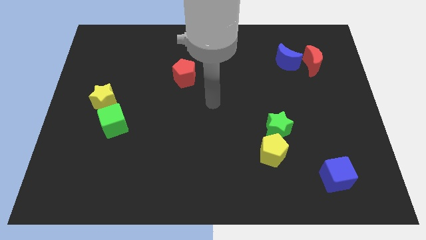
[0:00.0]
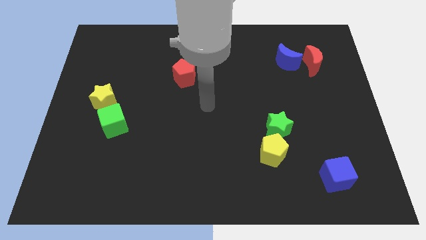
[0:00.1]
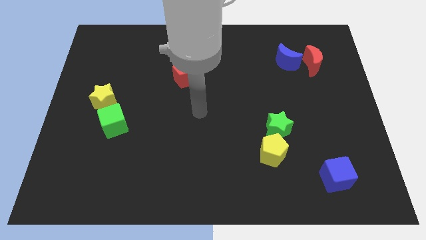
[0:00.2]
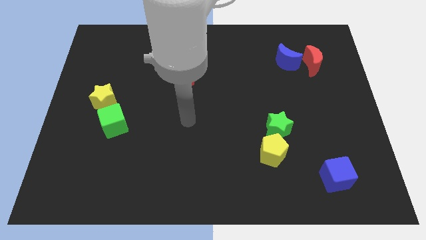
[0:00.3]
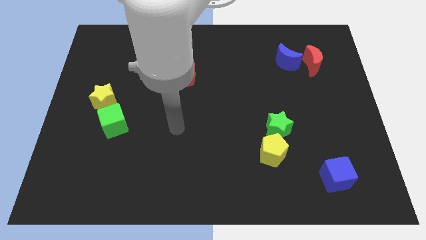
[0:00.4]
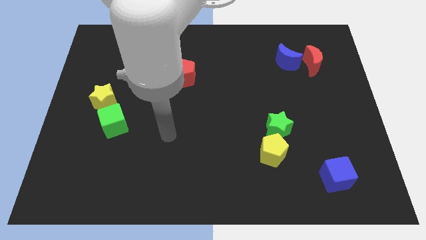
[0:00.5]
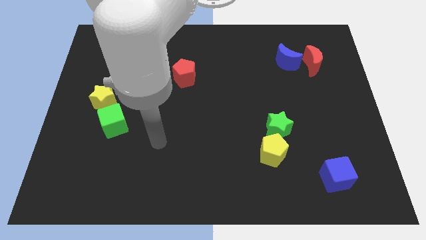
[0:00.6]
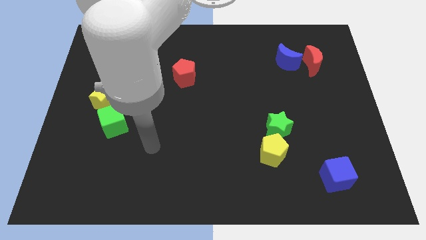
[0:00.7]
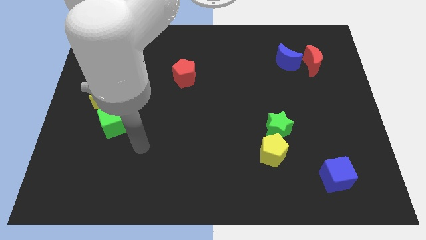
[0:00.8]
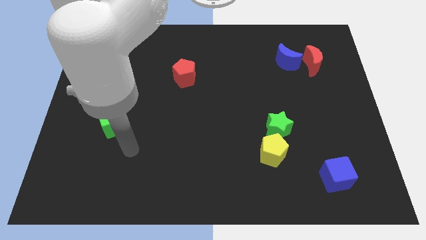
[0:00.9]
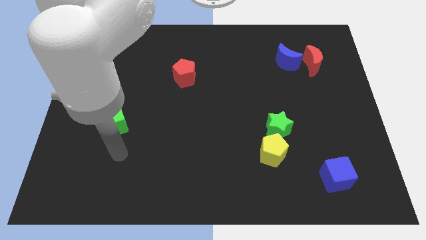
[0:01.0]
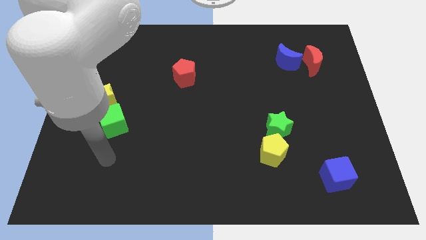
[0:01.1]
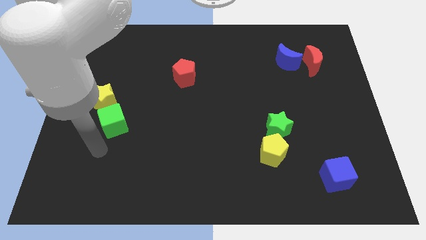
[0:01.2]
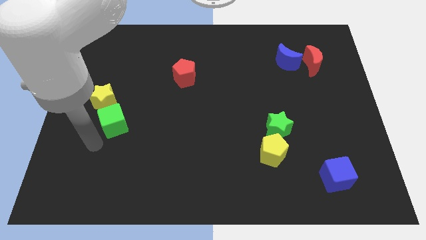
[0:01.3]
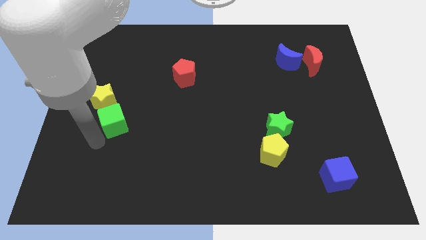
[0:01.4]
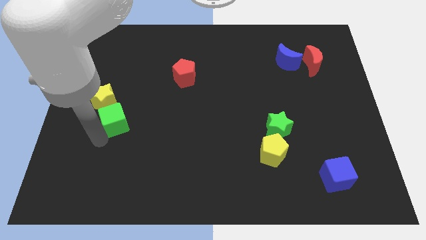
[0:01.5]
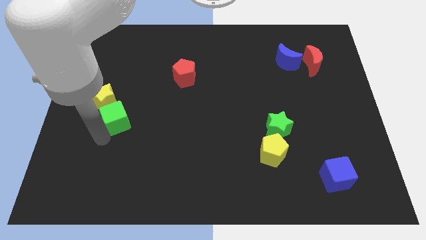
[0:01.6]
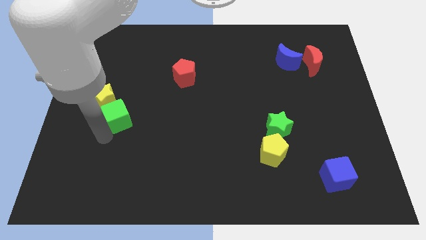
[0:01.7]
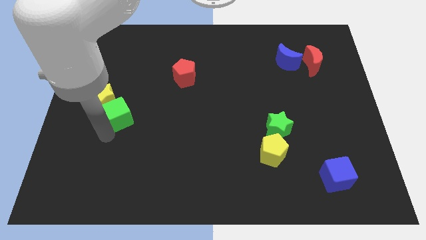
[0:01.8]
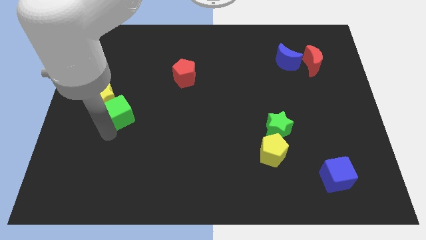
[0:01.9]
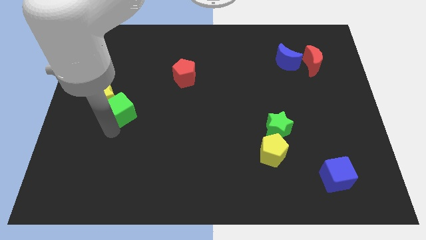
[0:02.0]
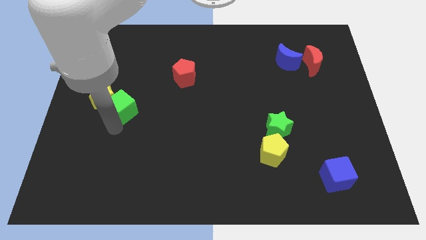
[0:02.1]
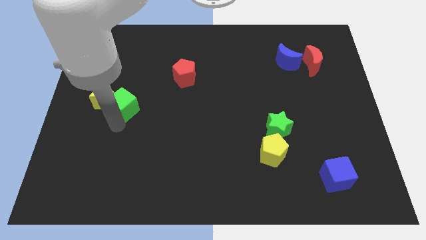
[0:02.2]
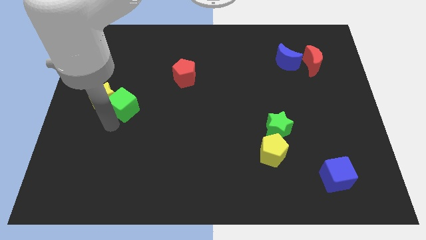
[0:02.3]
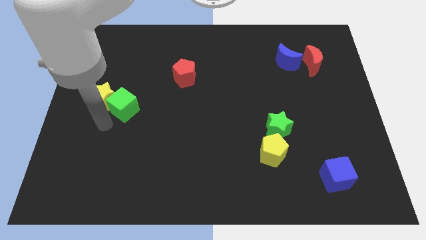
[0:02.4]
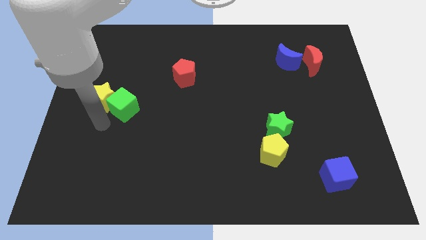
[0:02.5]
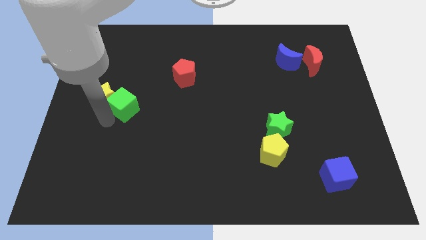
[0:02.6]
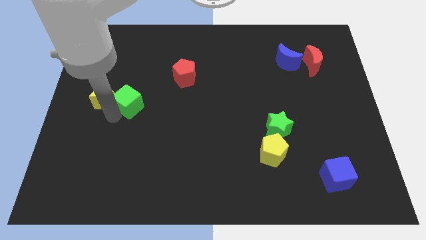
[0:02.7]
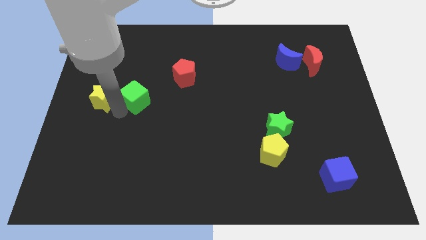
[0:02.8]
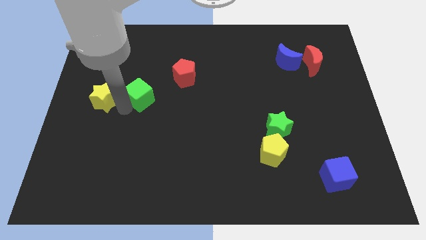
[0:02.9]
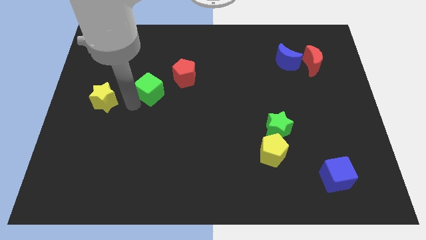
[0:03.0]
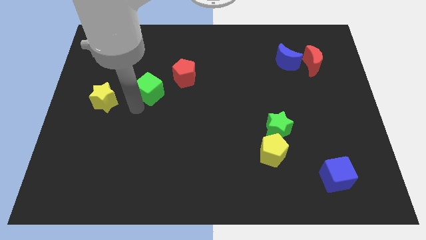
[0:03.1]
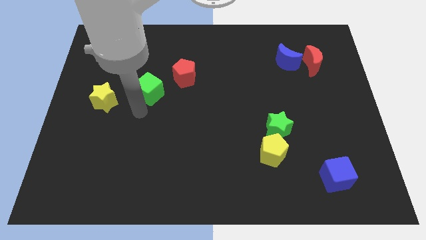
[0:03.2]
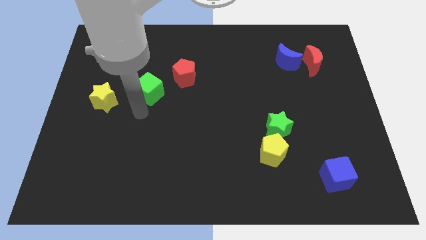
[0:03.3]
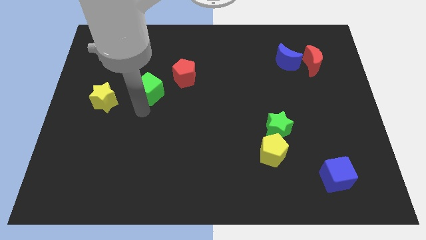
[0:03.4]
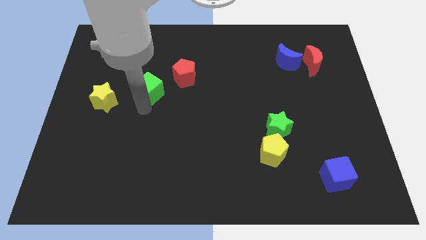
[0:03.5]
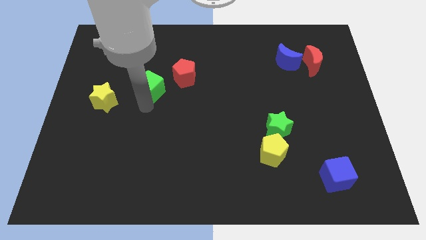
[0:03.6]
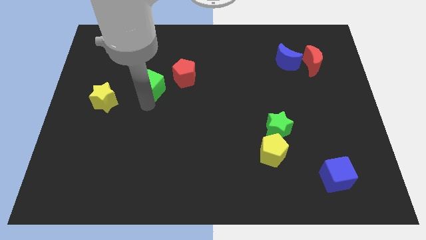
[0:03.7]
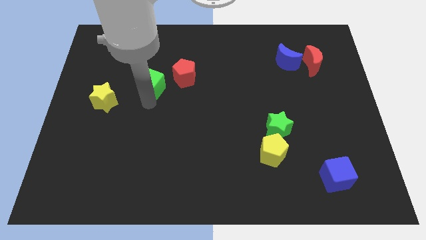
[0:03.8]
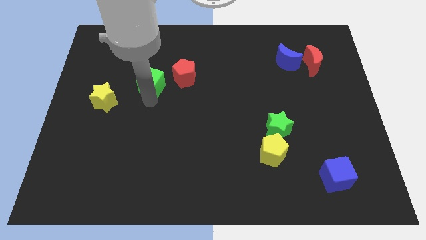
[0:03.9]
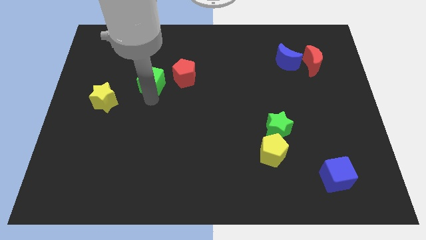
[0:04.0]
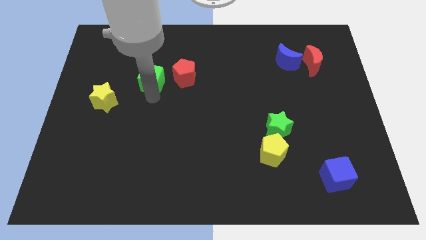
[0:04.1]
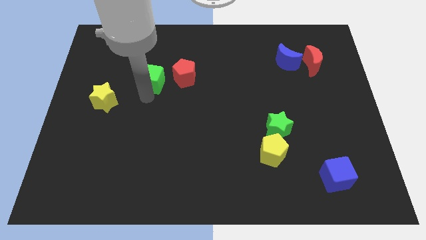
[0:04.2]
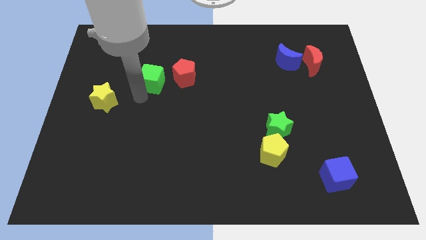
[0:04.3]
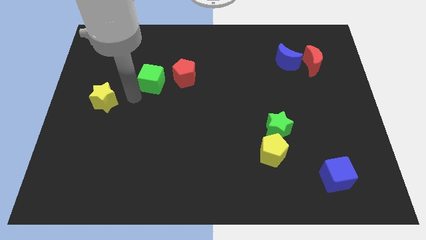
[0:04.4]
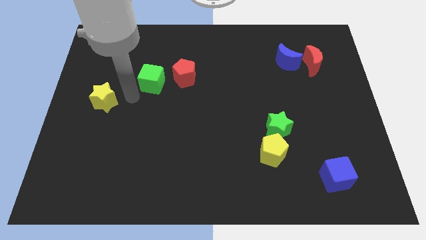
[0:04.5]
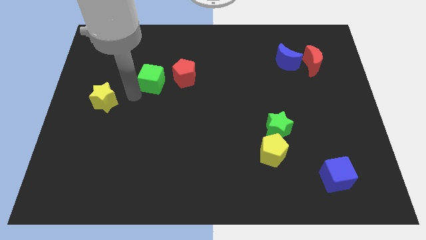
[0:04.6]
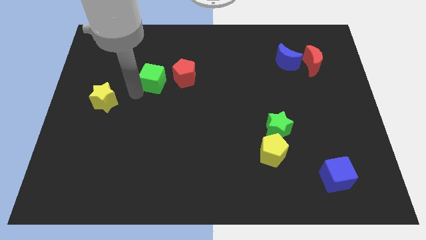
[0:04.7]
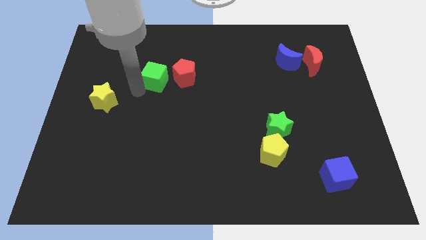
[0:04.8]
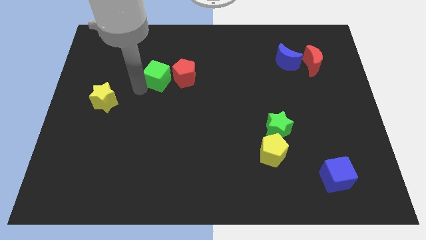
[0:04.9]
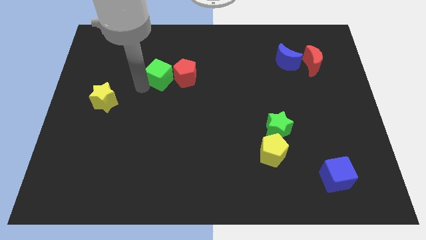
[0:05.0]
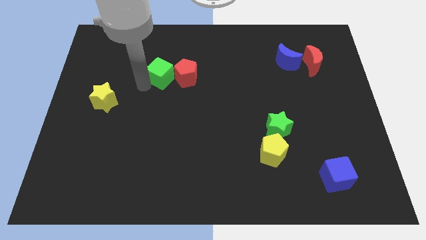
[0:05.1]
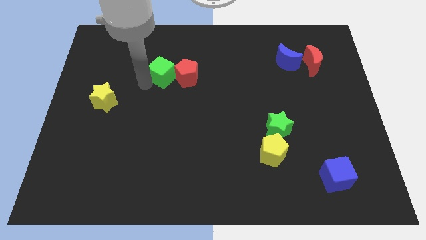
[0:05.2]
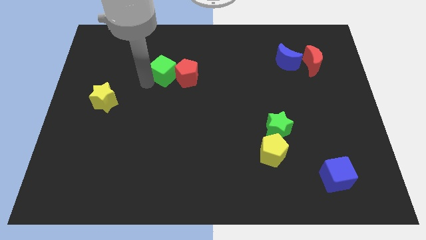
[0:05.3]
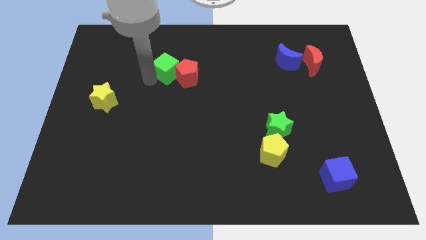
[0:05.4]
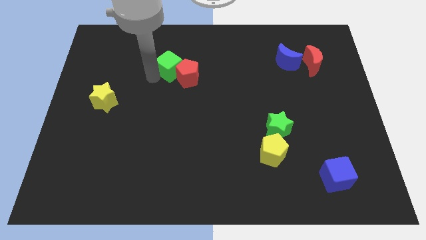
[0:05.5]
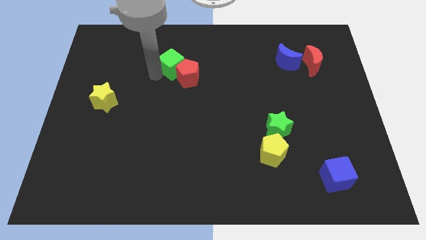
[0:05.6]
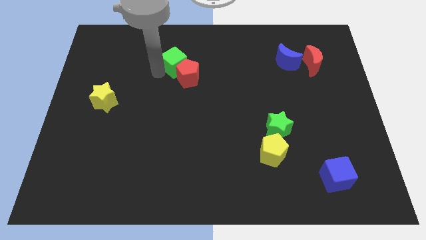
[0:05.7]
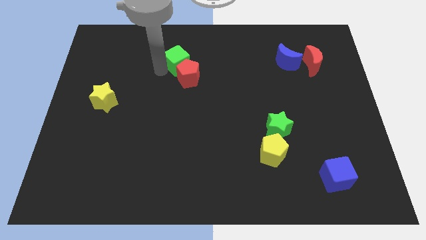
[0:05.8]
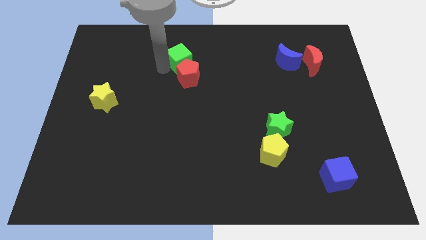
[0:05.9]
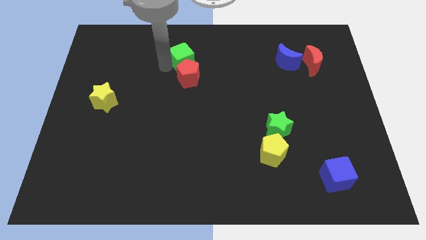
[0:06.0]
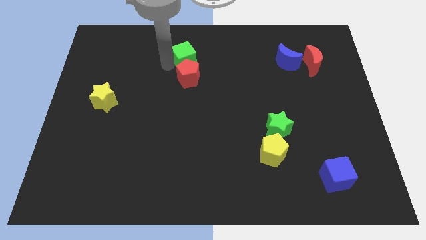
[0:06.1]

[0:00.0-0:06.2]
push the green cube diagonally up and to the right of the red pentagon

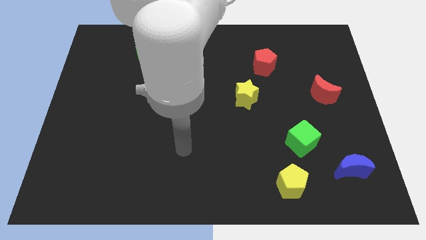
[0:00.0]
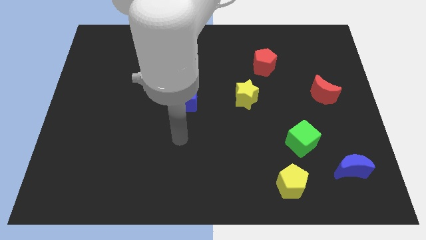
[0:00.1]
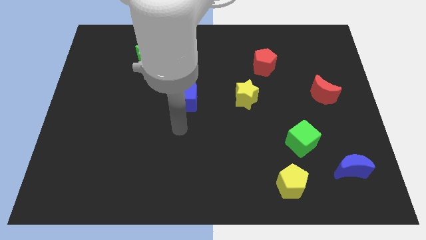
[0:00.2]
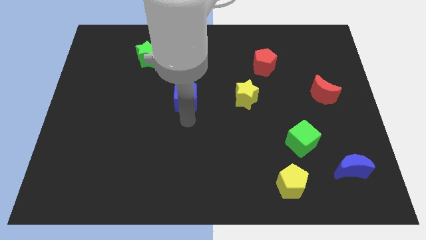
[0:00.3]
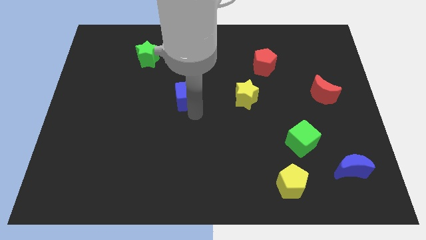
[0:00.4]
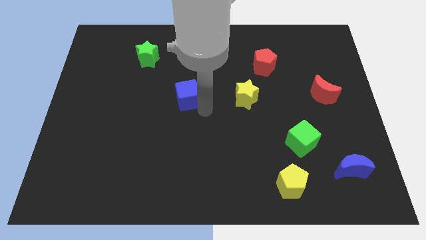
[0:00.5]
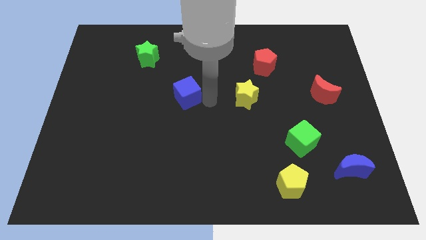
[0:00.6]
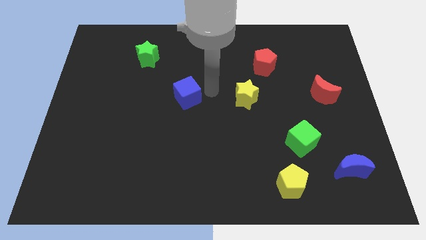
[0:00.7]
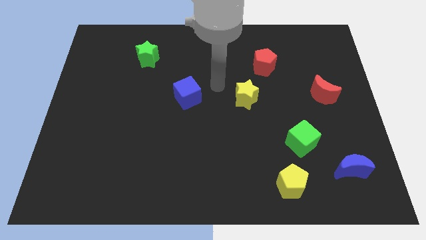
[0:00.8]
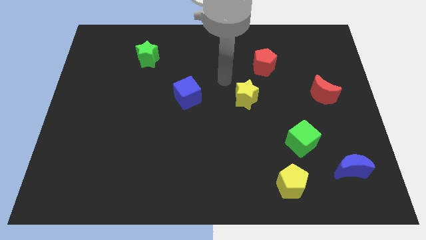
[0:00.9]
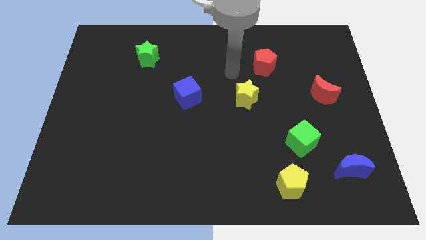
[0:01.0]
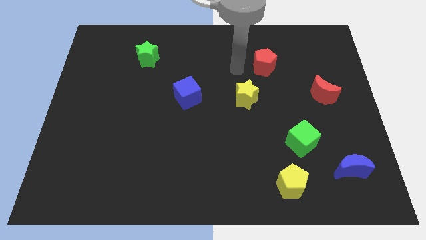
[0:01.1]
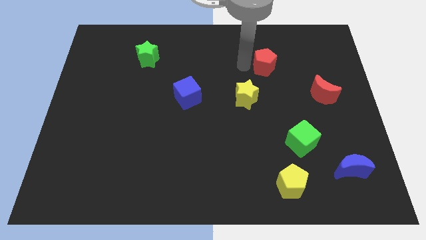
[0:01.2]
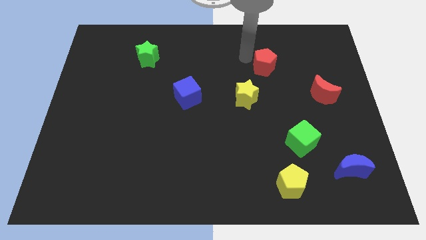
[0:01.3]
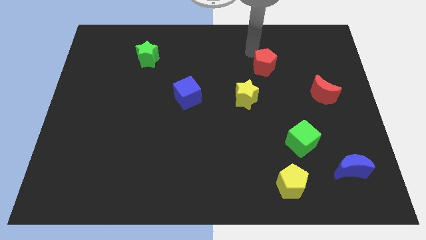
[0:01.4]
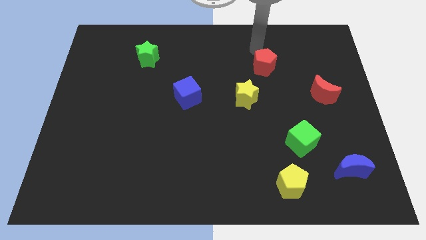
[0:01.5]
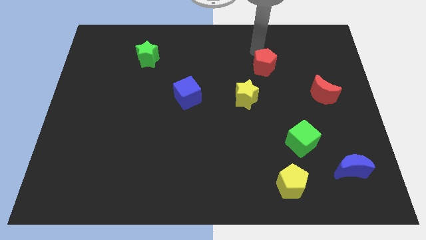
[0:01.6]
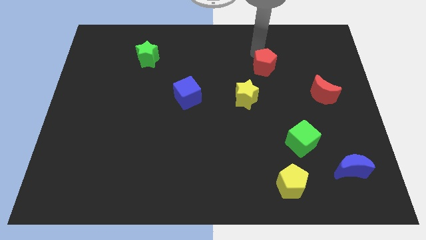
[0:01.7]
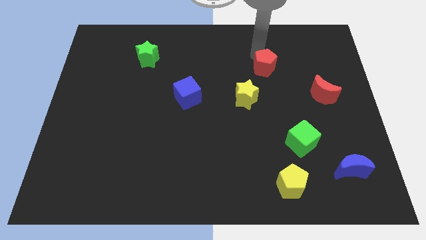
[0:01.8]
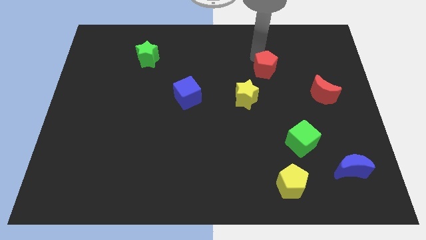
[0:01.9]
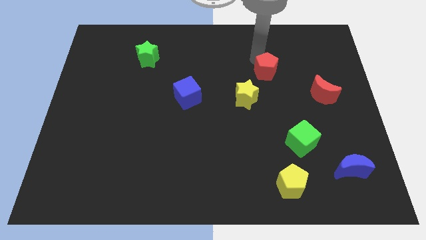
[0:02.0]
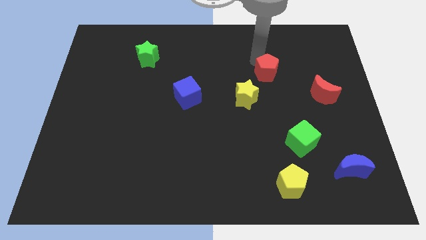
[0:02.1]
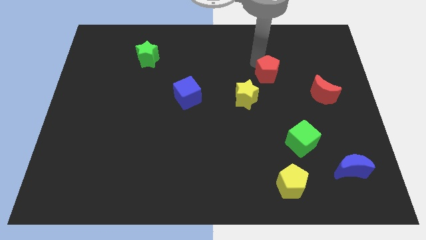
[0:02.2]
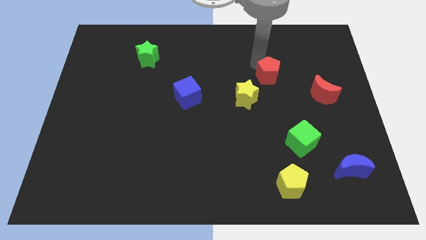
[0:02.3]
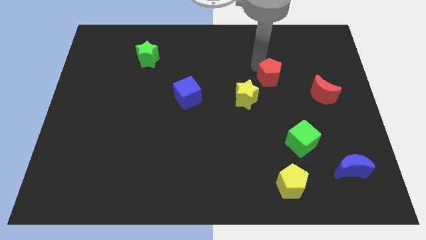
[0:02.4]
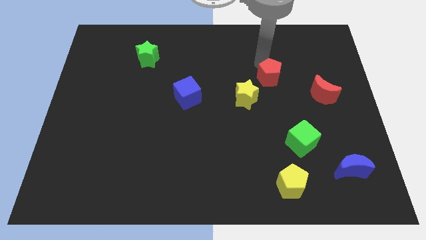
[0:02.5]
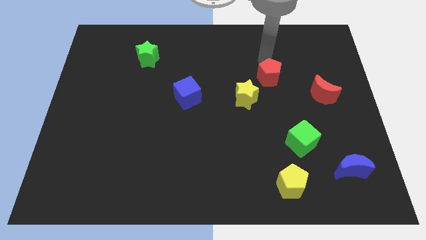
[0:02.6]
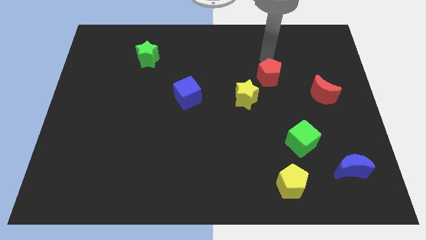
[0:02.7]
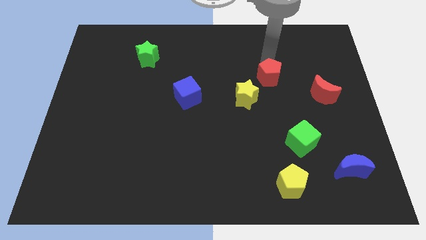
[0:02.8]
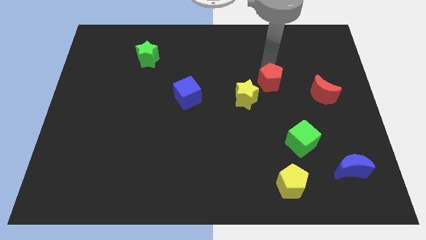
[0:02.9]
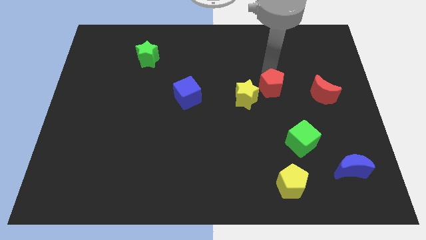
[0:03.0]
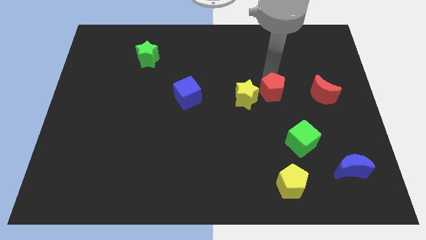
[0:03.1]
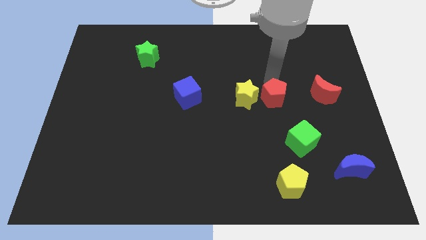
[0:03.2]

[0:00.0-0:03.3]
put the red pentagon to the bottom right of the yellow star
